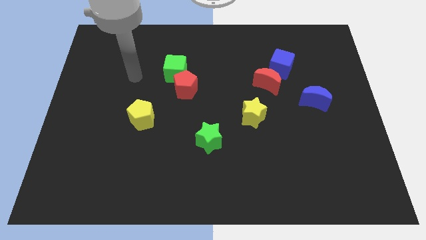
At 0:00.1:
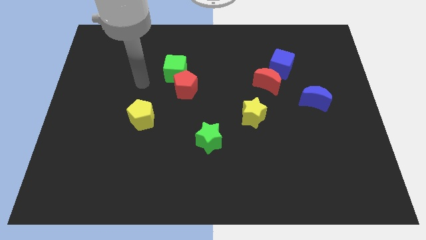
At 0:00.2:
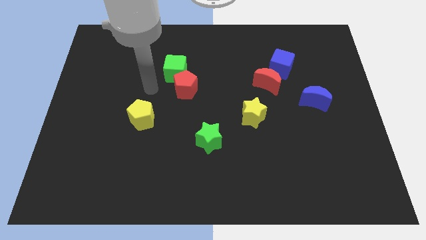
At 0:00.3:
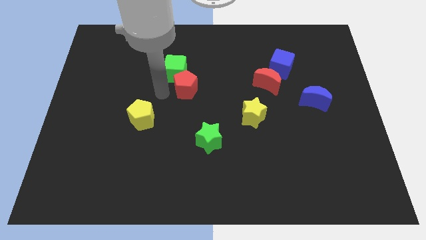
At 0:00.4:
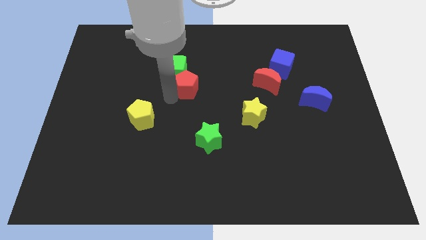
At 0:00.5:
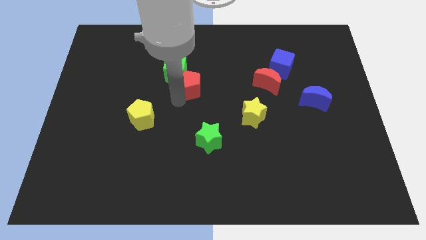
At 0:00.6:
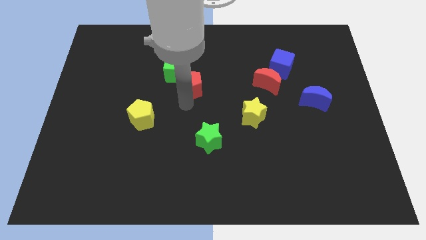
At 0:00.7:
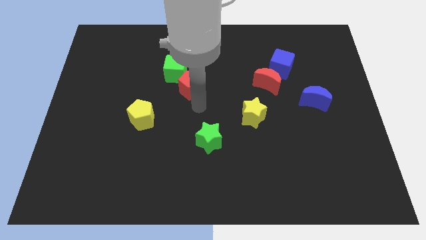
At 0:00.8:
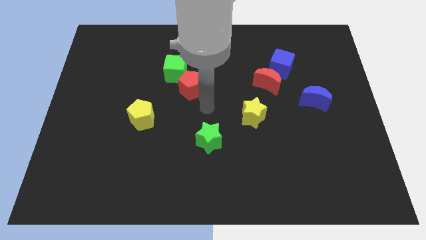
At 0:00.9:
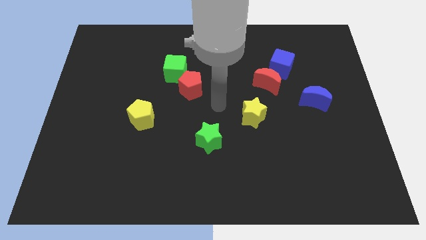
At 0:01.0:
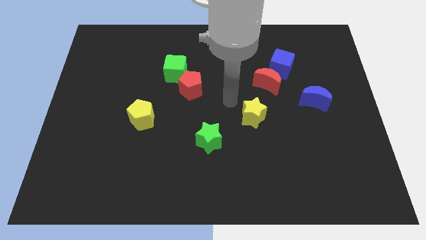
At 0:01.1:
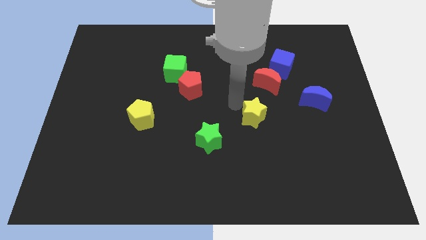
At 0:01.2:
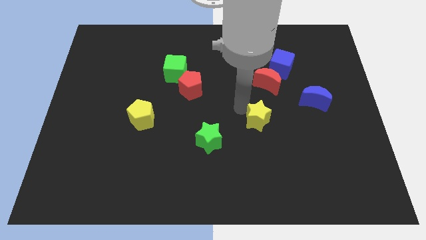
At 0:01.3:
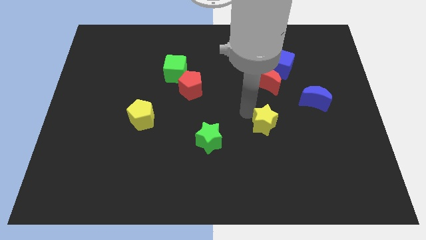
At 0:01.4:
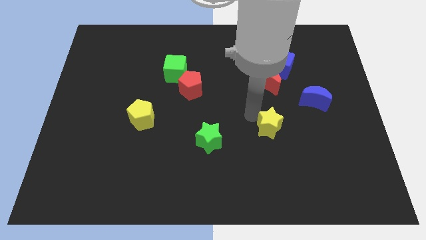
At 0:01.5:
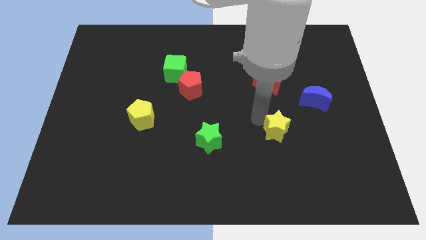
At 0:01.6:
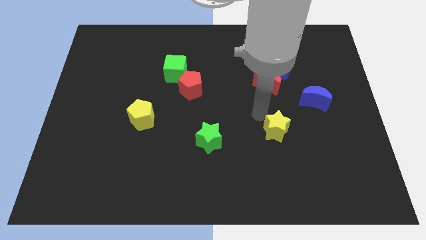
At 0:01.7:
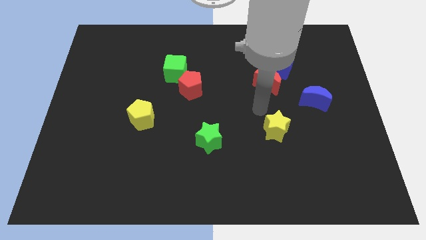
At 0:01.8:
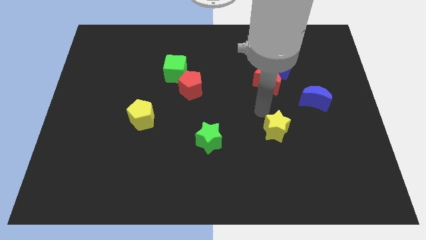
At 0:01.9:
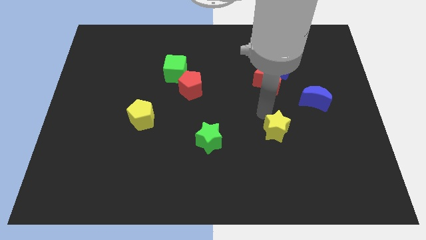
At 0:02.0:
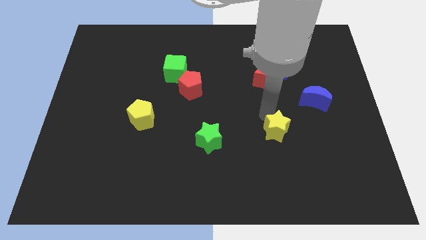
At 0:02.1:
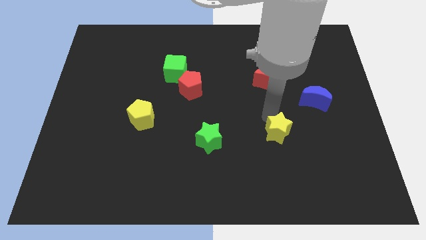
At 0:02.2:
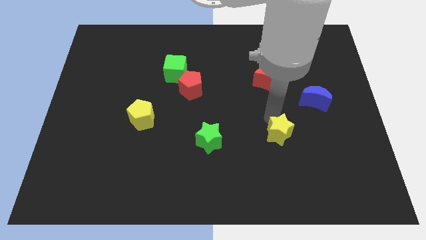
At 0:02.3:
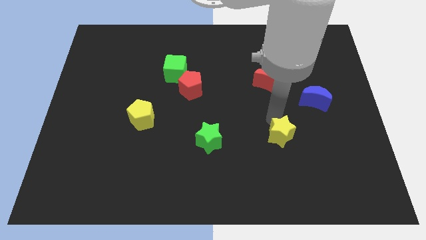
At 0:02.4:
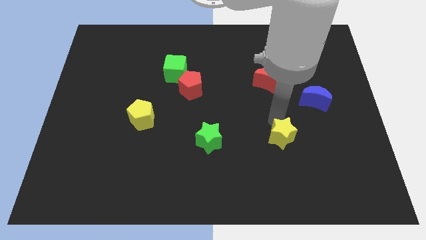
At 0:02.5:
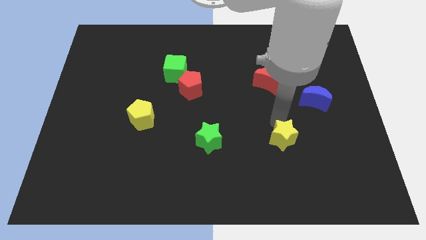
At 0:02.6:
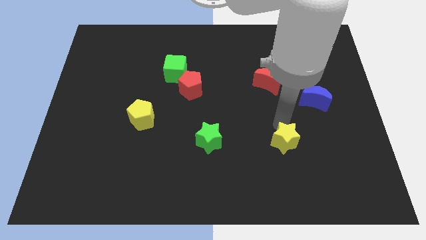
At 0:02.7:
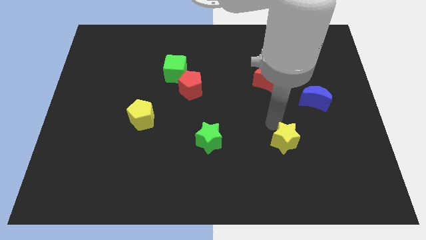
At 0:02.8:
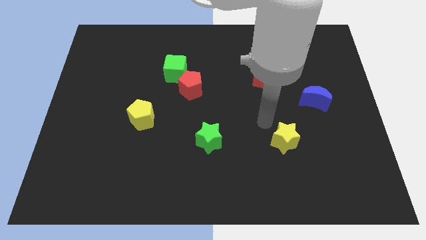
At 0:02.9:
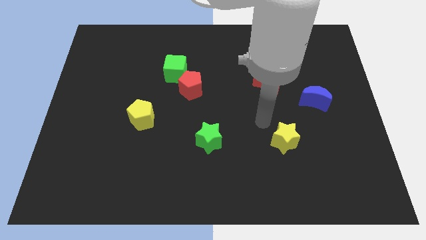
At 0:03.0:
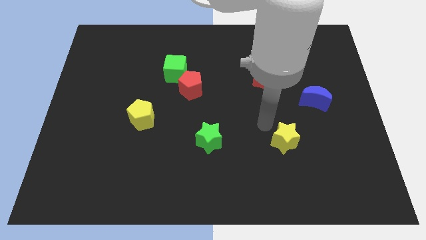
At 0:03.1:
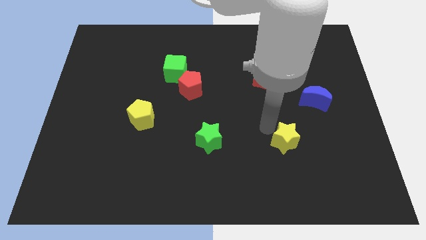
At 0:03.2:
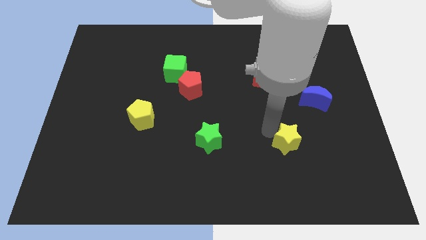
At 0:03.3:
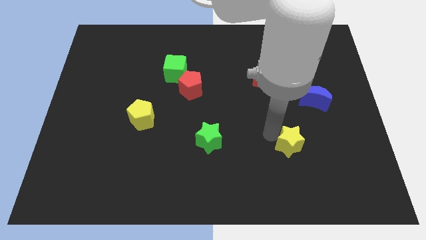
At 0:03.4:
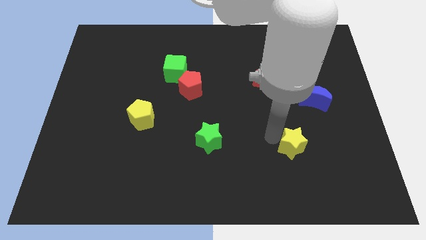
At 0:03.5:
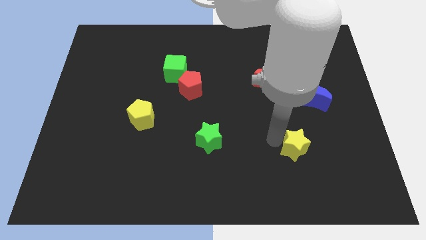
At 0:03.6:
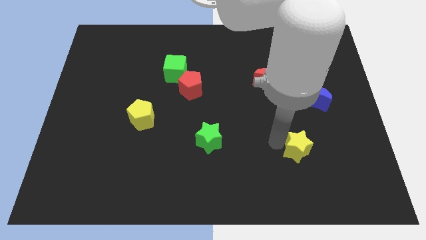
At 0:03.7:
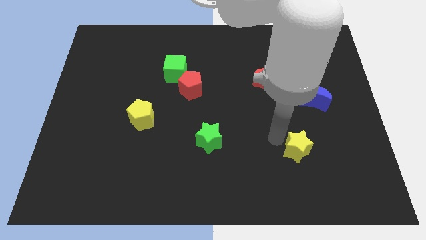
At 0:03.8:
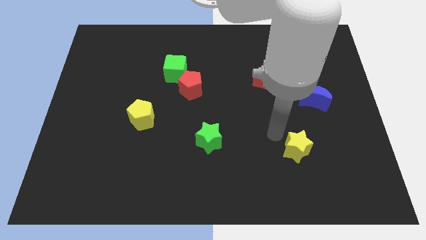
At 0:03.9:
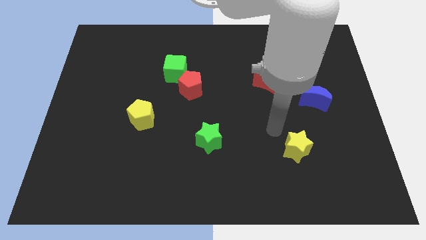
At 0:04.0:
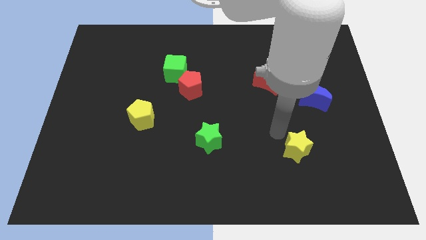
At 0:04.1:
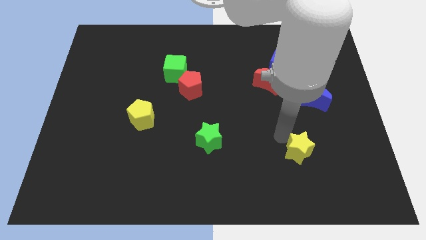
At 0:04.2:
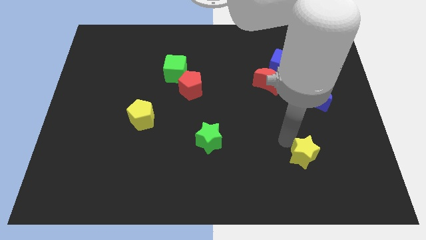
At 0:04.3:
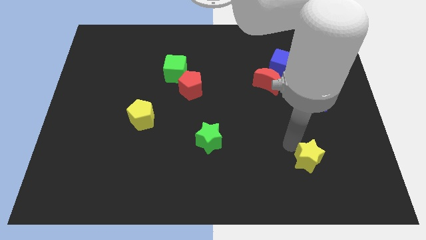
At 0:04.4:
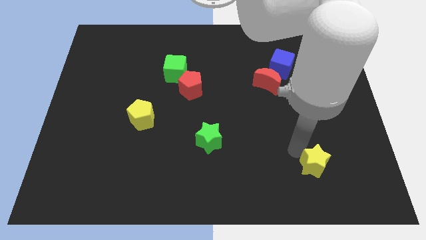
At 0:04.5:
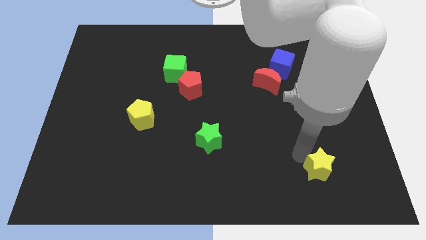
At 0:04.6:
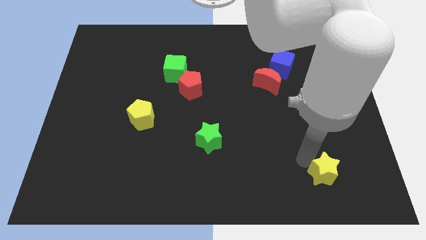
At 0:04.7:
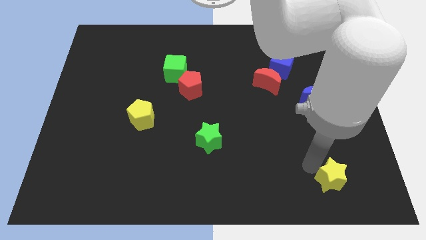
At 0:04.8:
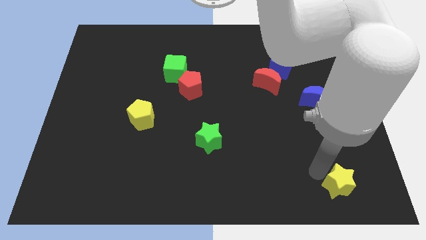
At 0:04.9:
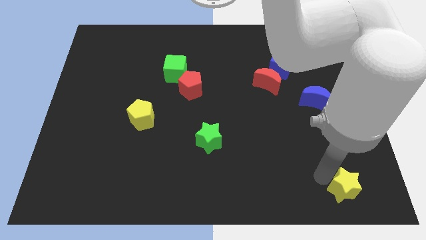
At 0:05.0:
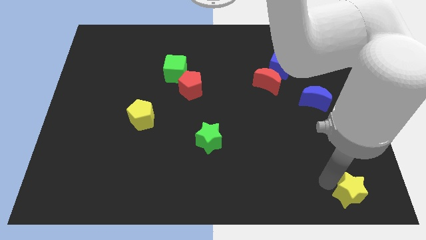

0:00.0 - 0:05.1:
push the yellow star to the bottom right corner

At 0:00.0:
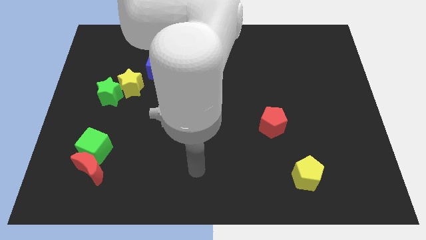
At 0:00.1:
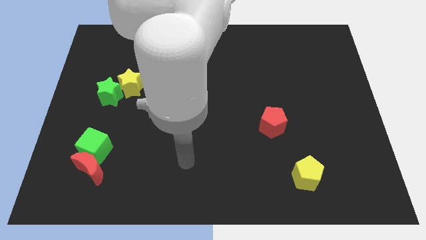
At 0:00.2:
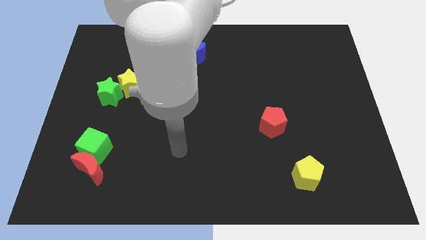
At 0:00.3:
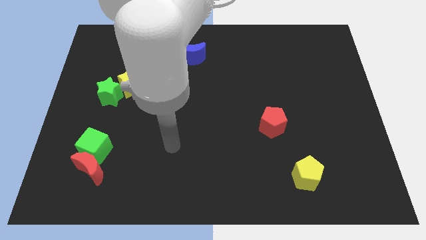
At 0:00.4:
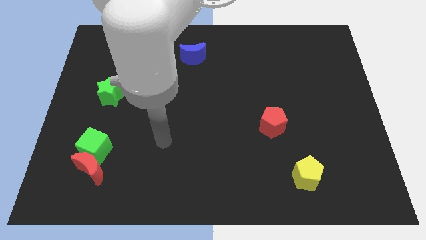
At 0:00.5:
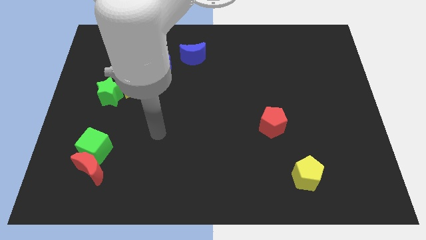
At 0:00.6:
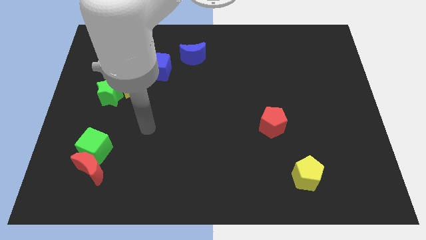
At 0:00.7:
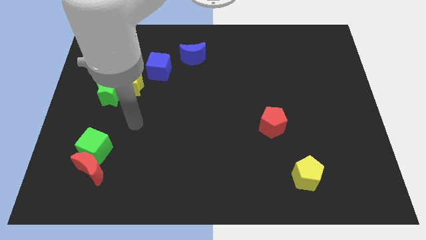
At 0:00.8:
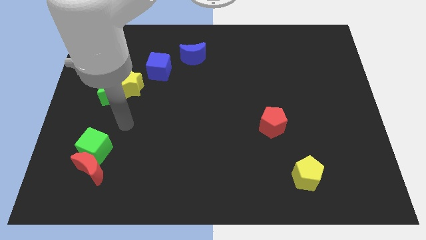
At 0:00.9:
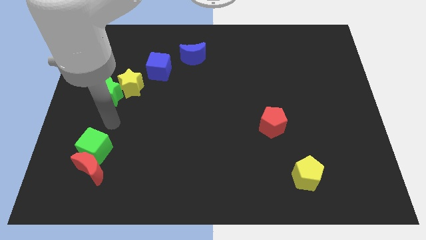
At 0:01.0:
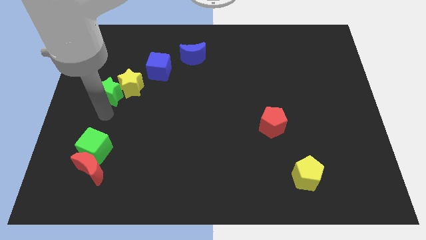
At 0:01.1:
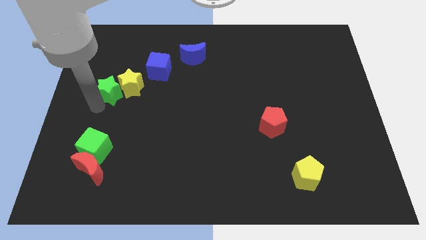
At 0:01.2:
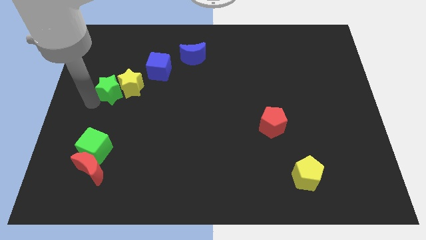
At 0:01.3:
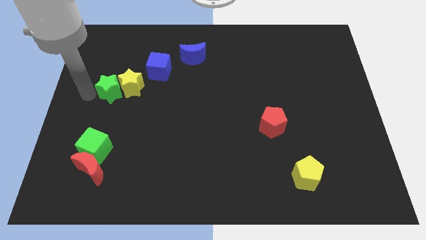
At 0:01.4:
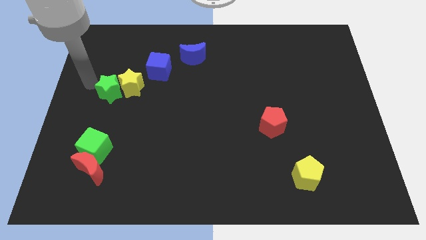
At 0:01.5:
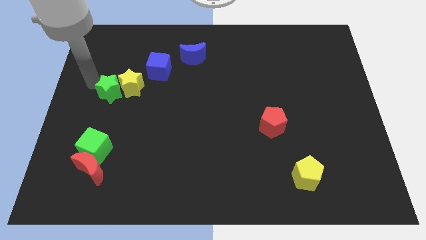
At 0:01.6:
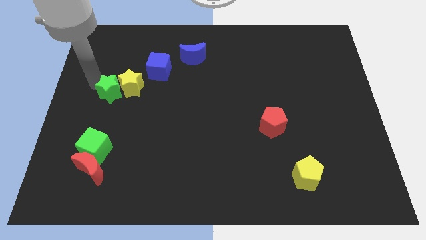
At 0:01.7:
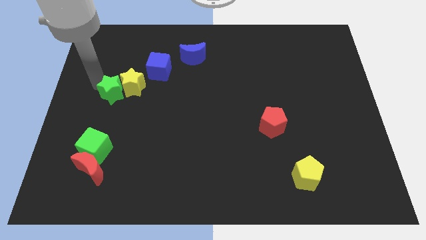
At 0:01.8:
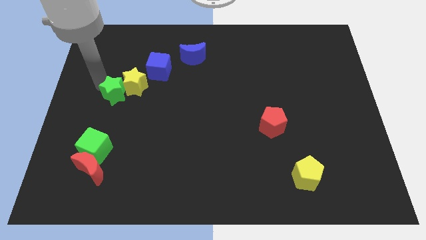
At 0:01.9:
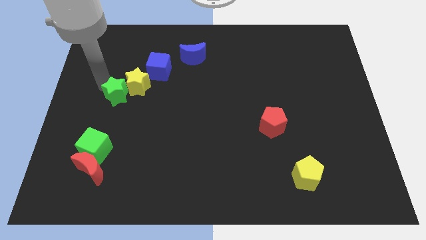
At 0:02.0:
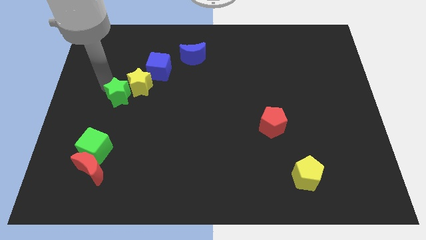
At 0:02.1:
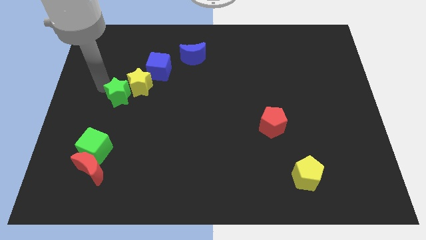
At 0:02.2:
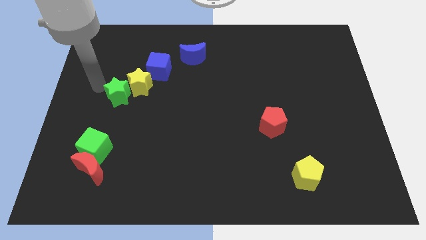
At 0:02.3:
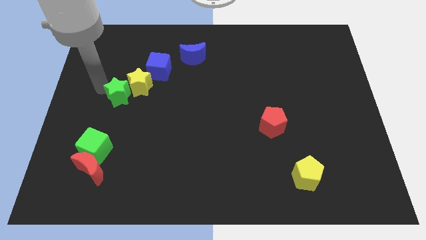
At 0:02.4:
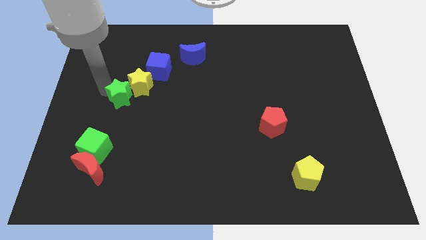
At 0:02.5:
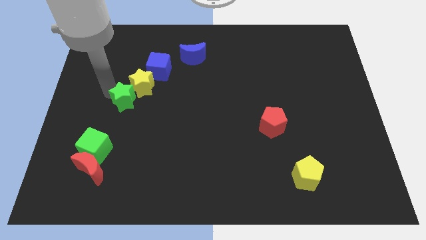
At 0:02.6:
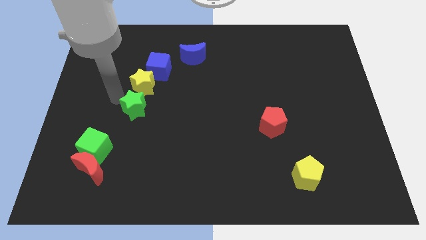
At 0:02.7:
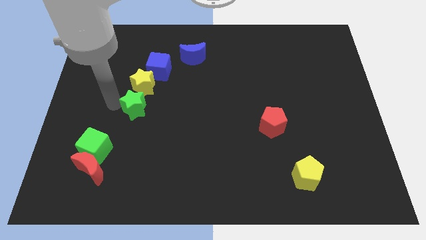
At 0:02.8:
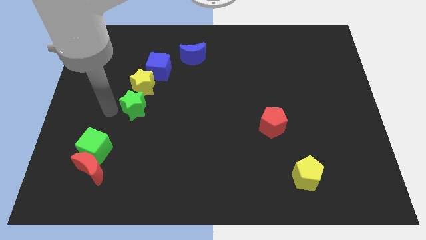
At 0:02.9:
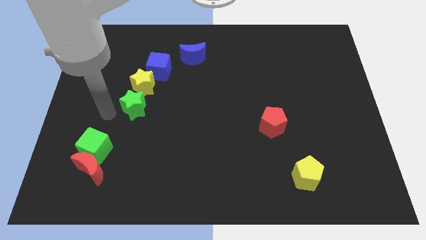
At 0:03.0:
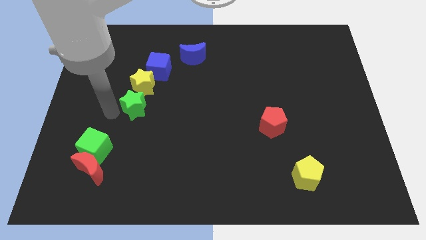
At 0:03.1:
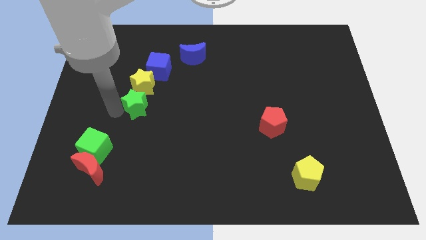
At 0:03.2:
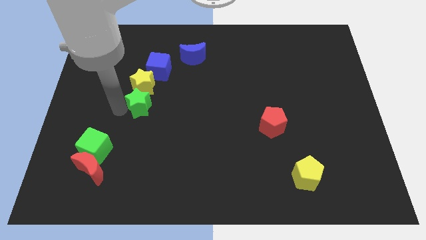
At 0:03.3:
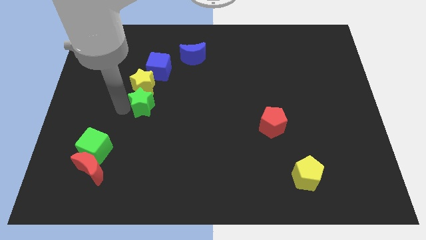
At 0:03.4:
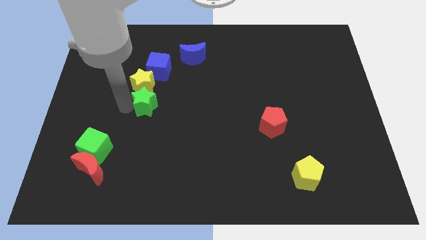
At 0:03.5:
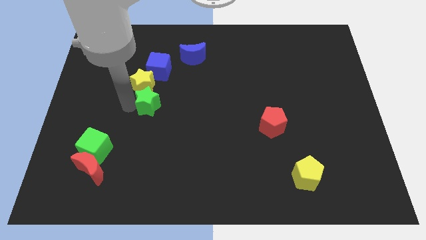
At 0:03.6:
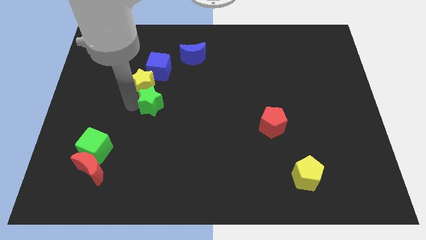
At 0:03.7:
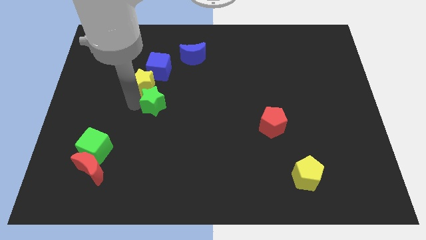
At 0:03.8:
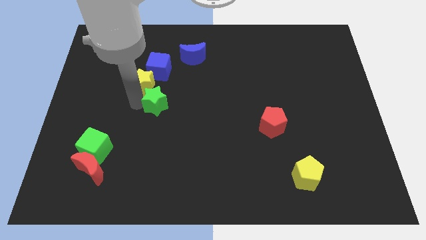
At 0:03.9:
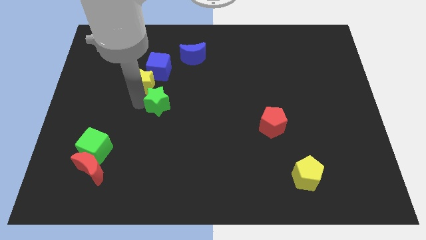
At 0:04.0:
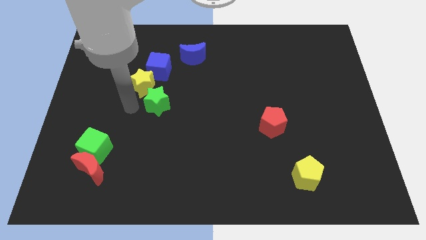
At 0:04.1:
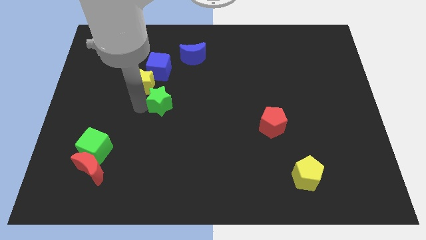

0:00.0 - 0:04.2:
slide the green star to the center of the board
